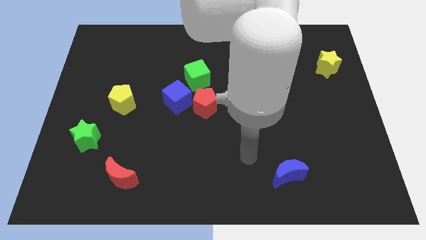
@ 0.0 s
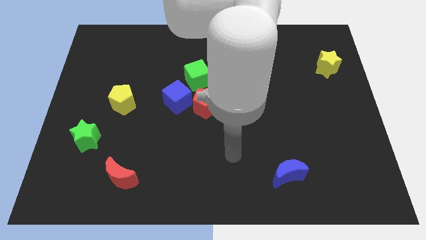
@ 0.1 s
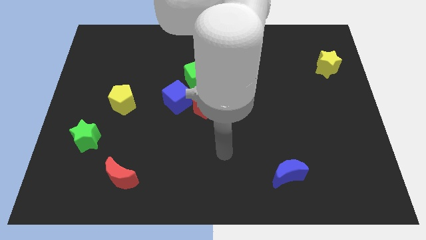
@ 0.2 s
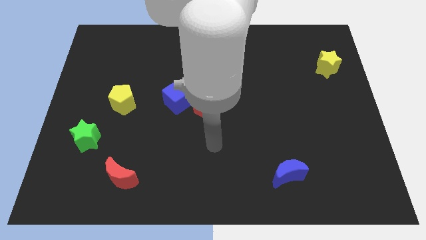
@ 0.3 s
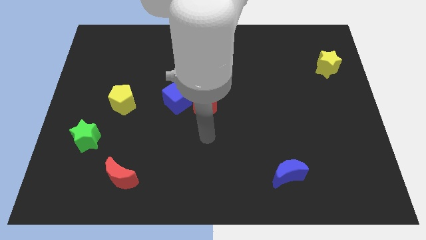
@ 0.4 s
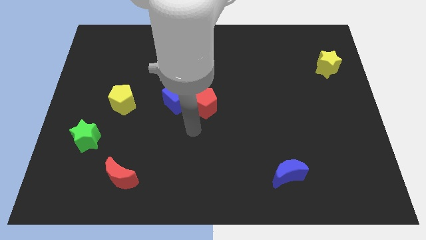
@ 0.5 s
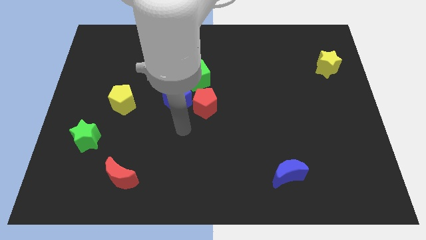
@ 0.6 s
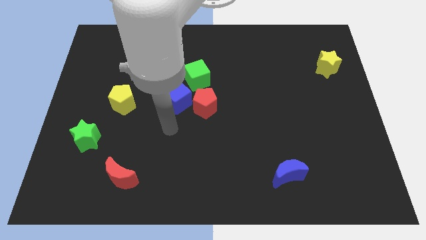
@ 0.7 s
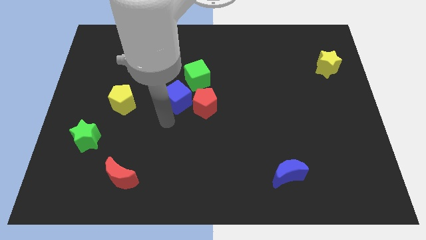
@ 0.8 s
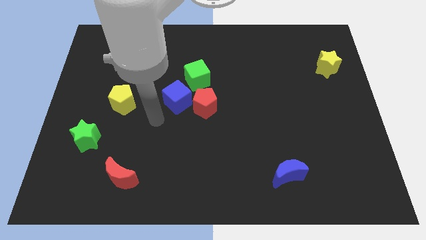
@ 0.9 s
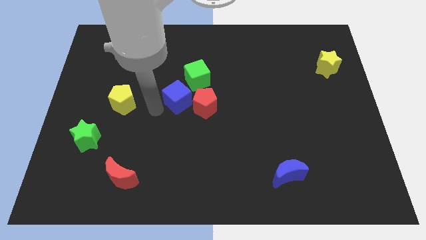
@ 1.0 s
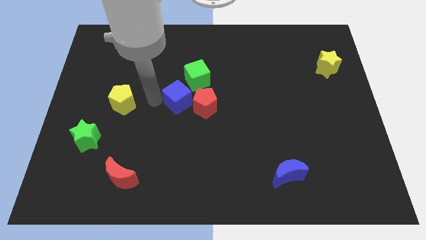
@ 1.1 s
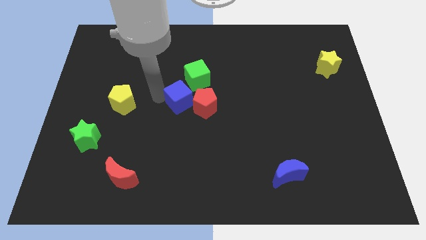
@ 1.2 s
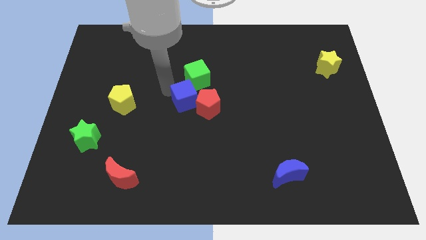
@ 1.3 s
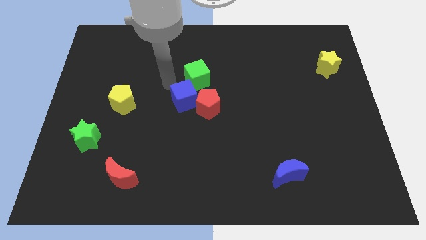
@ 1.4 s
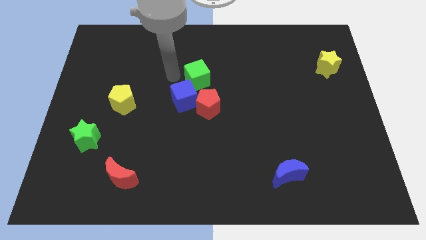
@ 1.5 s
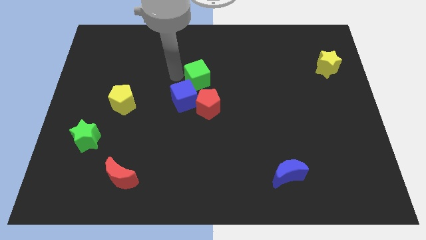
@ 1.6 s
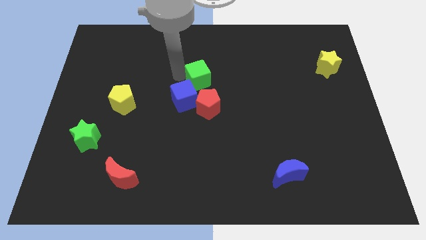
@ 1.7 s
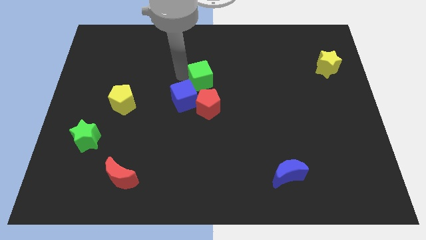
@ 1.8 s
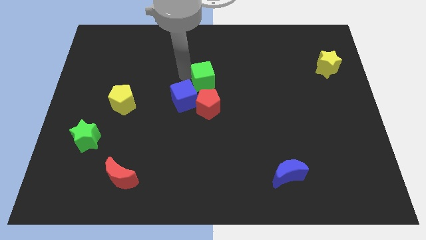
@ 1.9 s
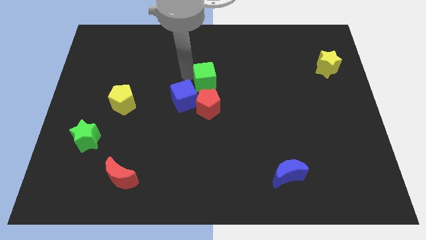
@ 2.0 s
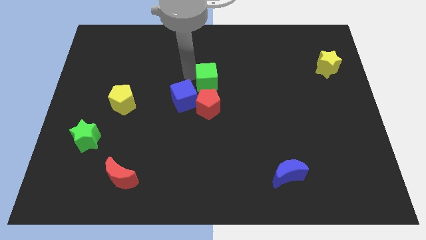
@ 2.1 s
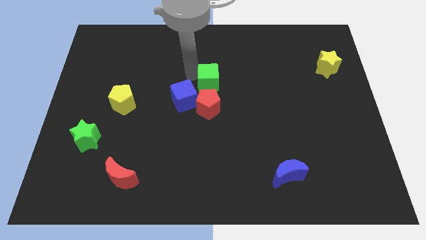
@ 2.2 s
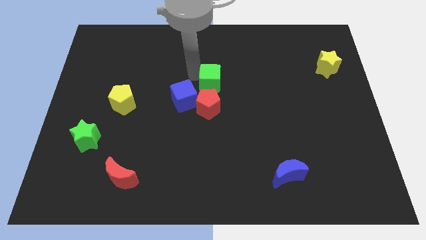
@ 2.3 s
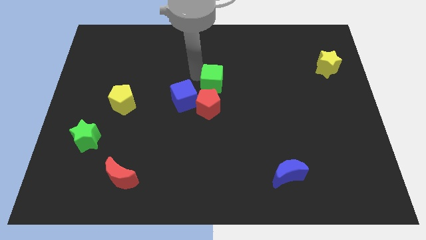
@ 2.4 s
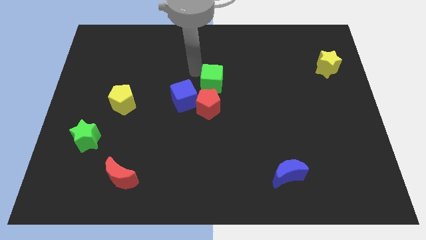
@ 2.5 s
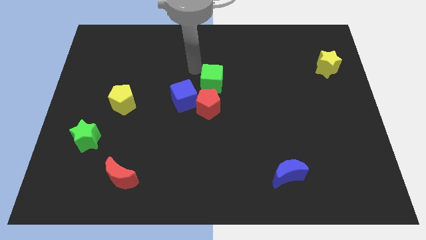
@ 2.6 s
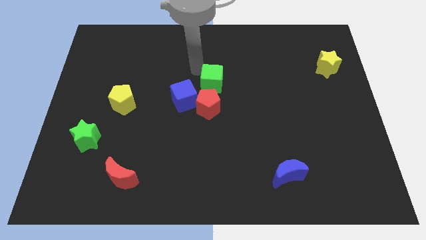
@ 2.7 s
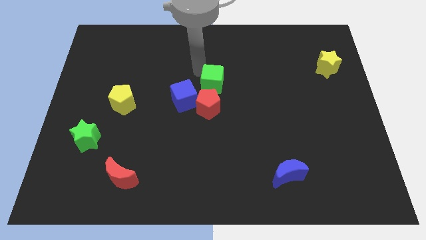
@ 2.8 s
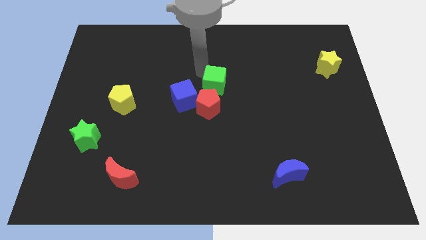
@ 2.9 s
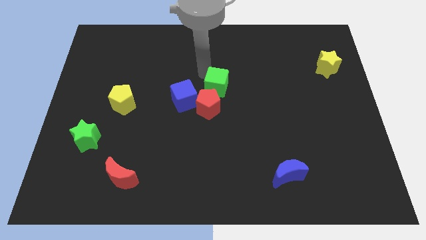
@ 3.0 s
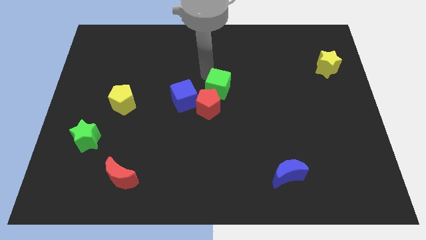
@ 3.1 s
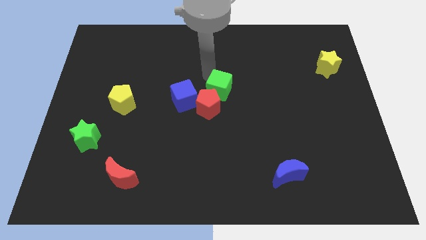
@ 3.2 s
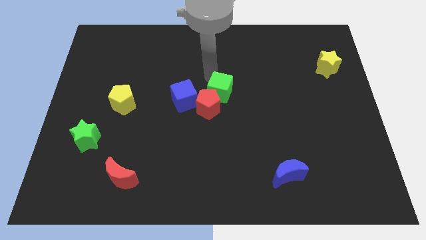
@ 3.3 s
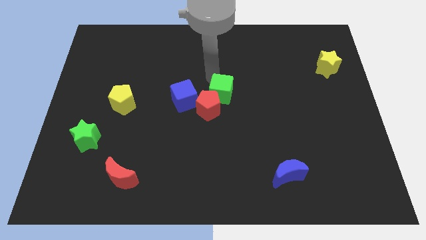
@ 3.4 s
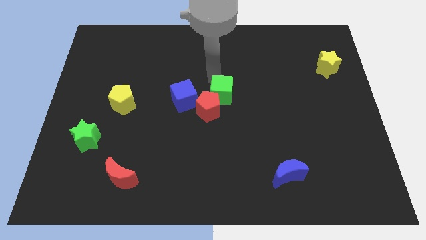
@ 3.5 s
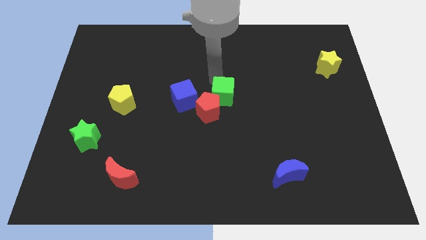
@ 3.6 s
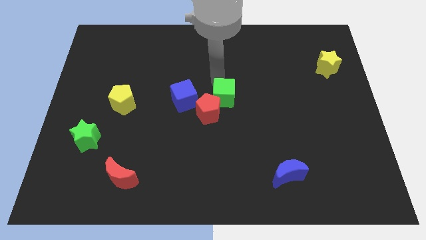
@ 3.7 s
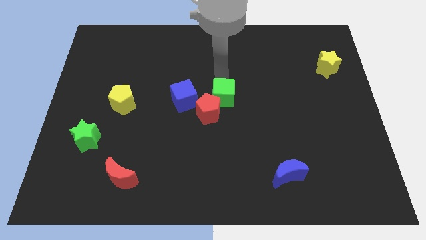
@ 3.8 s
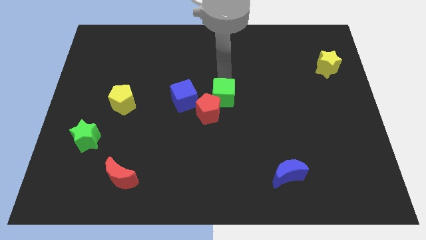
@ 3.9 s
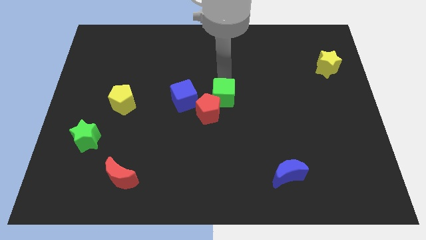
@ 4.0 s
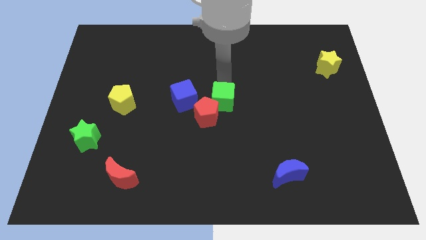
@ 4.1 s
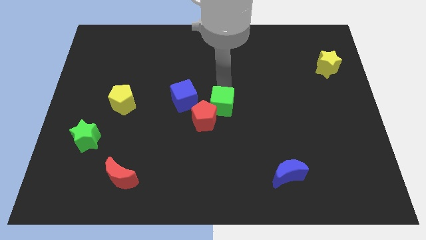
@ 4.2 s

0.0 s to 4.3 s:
push the green cube down a little bit

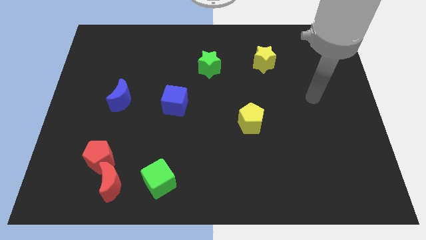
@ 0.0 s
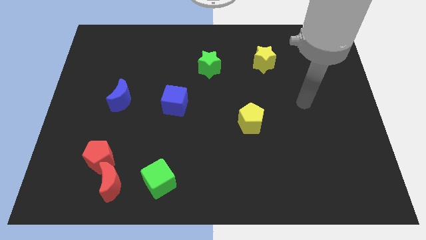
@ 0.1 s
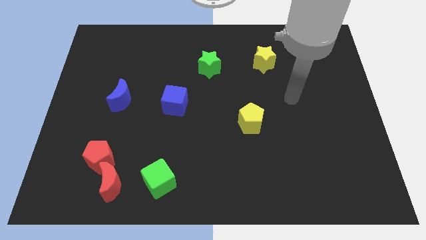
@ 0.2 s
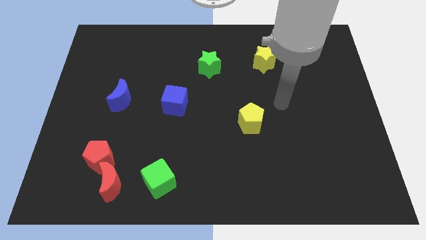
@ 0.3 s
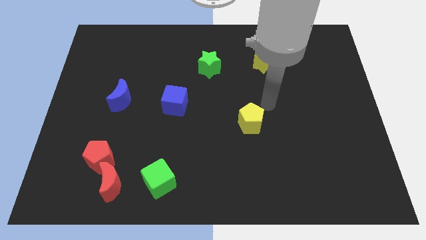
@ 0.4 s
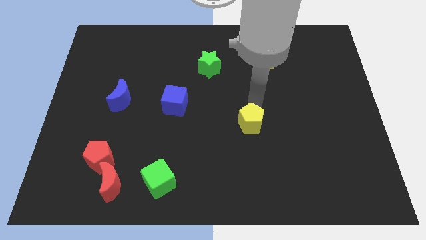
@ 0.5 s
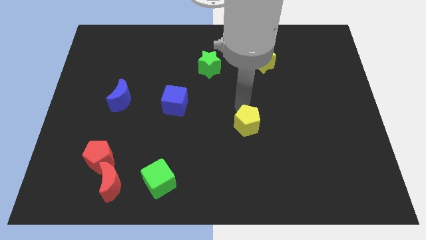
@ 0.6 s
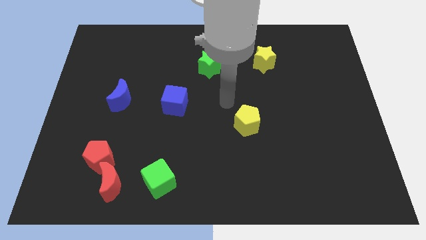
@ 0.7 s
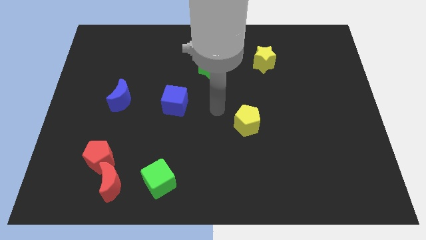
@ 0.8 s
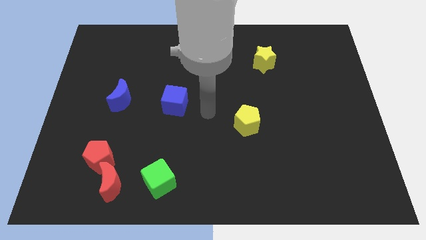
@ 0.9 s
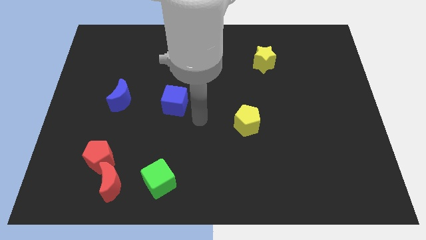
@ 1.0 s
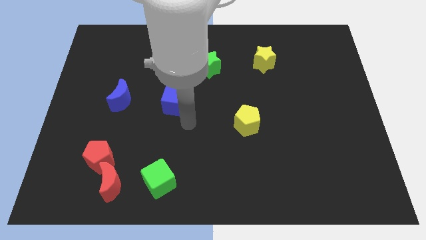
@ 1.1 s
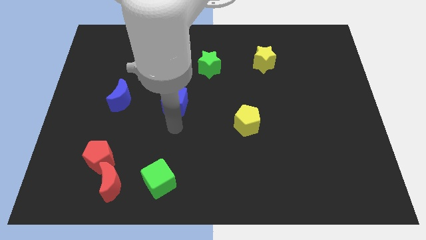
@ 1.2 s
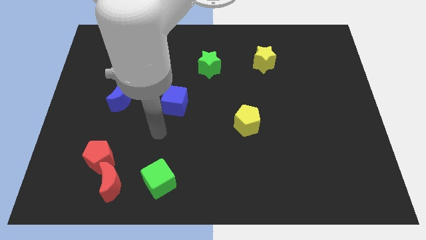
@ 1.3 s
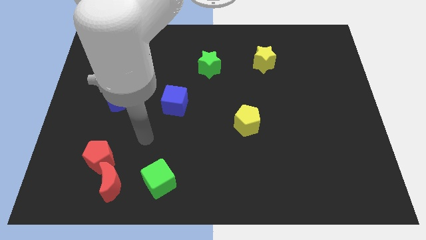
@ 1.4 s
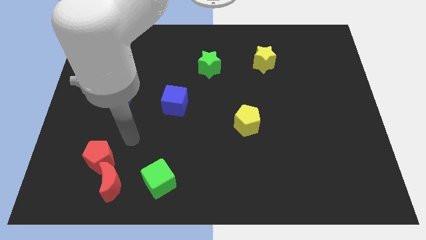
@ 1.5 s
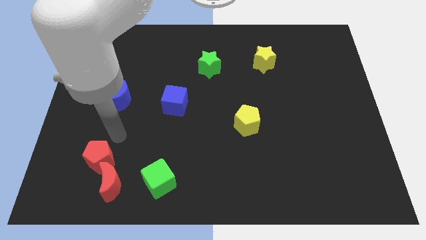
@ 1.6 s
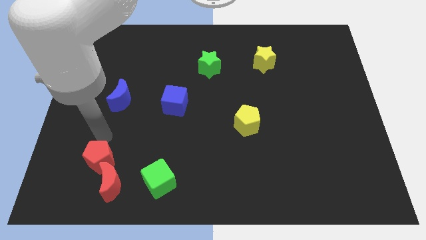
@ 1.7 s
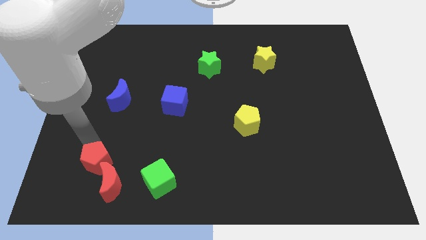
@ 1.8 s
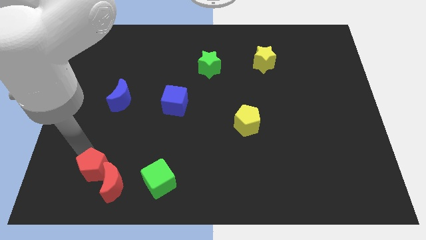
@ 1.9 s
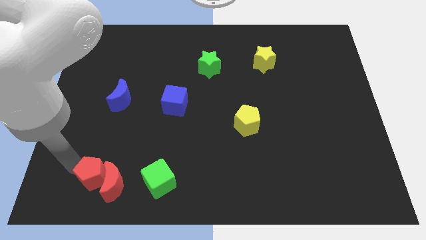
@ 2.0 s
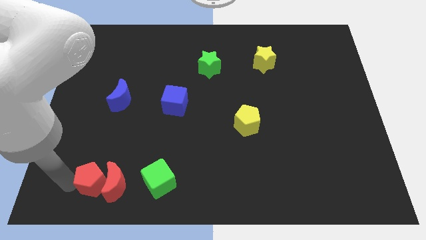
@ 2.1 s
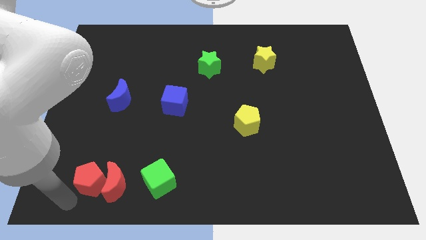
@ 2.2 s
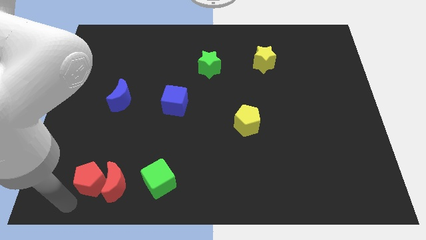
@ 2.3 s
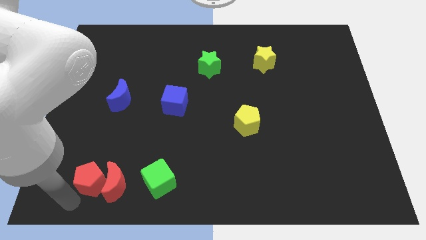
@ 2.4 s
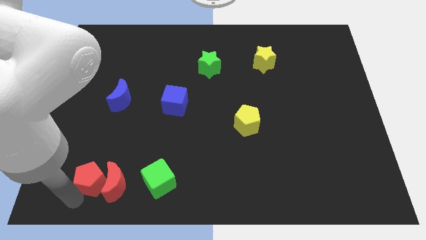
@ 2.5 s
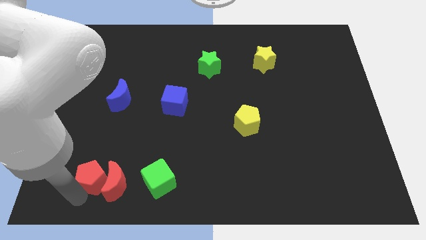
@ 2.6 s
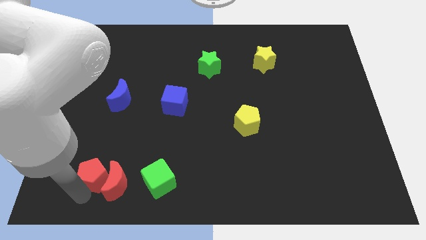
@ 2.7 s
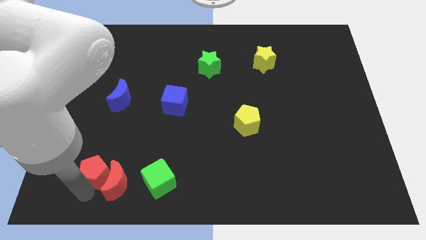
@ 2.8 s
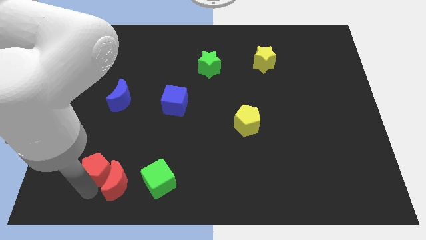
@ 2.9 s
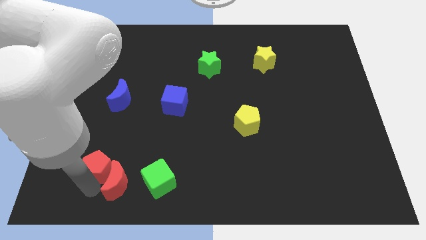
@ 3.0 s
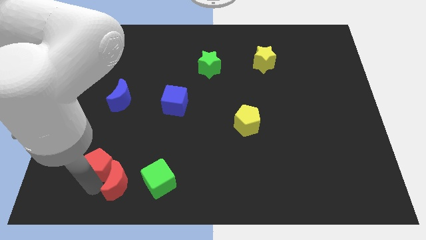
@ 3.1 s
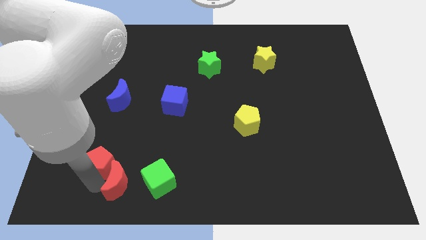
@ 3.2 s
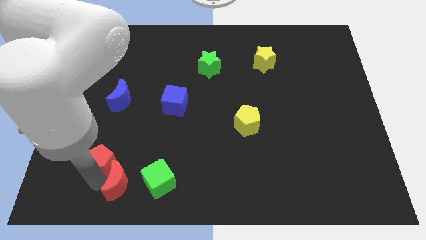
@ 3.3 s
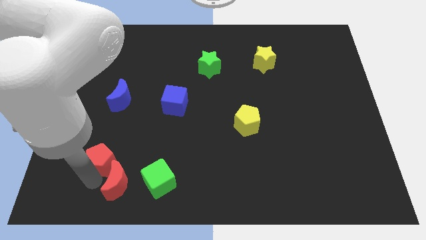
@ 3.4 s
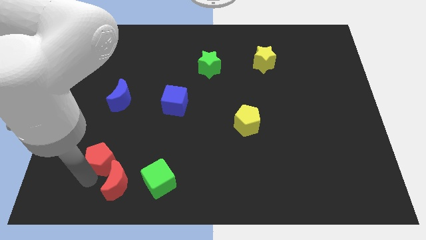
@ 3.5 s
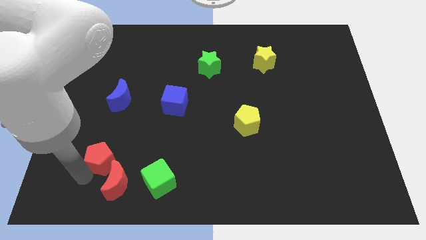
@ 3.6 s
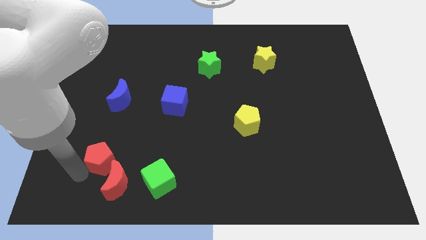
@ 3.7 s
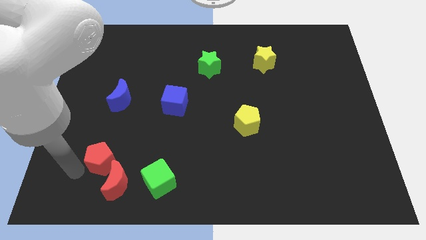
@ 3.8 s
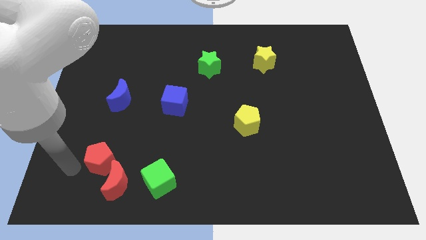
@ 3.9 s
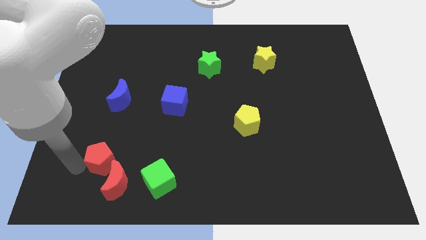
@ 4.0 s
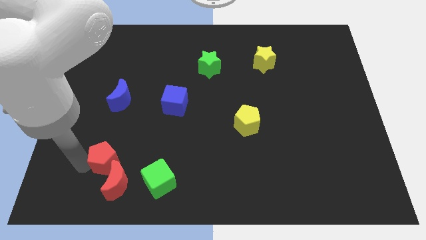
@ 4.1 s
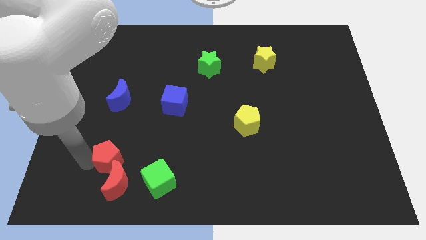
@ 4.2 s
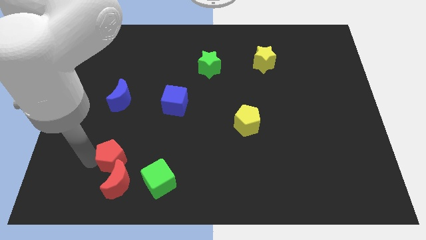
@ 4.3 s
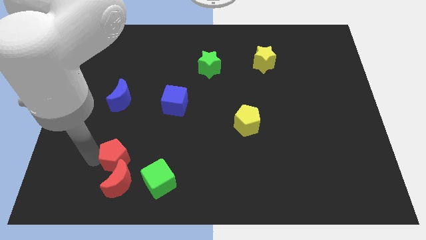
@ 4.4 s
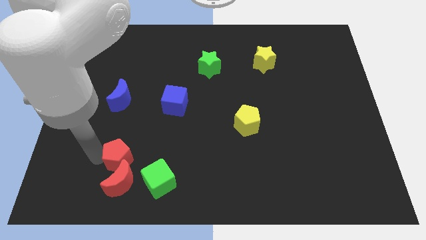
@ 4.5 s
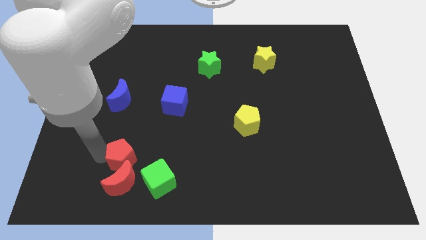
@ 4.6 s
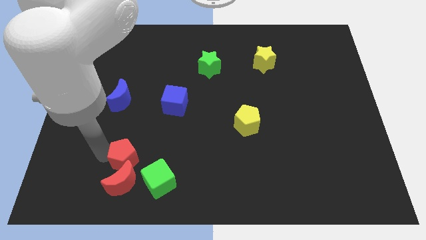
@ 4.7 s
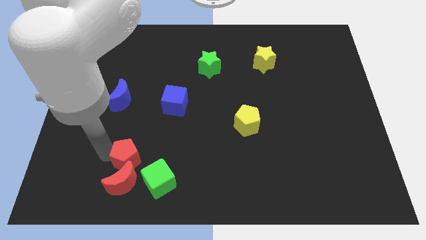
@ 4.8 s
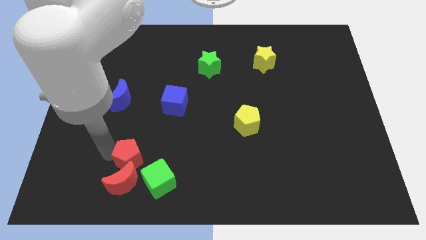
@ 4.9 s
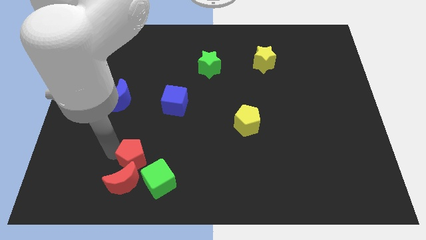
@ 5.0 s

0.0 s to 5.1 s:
push the red pentagon a bit to the right
